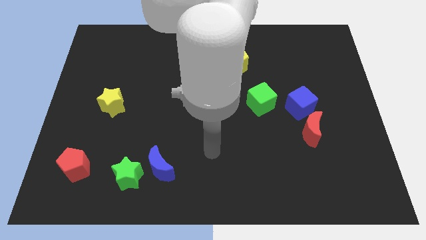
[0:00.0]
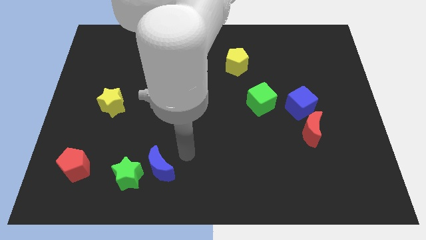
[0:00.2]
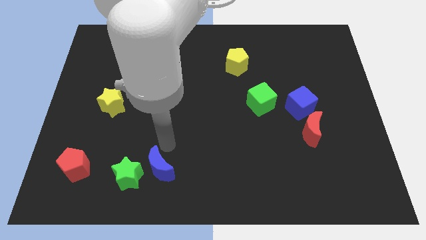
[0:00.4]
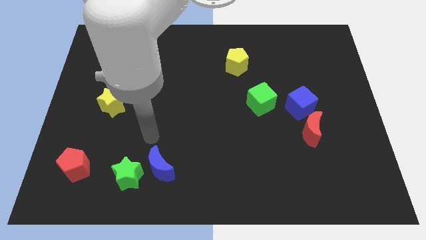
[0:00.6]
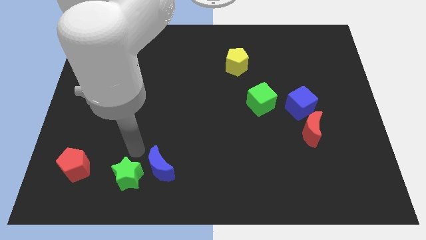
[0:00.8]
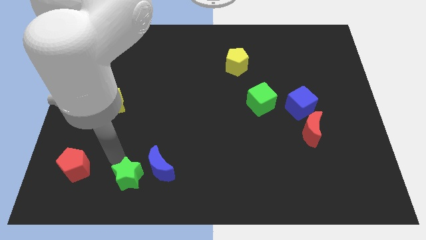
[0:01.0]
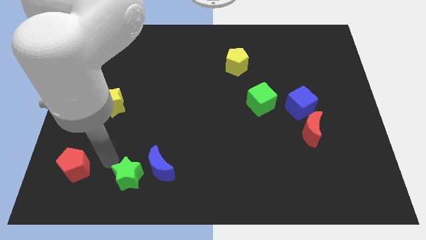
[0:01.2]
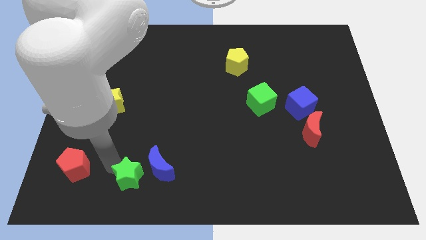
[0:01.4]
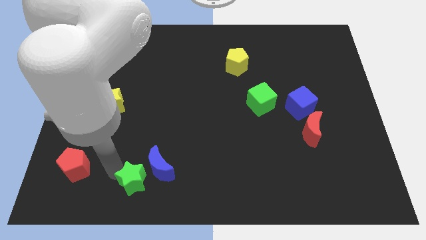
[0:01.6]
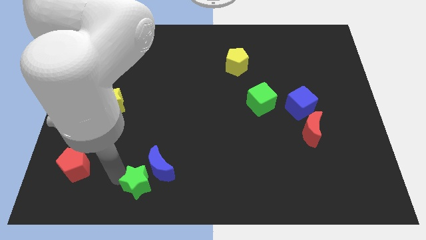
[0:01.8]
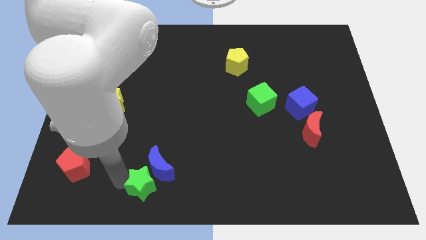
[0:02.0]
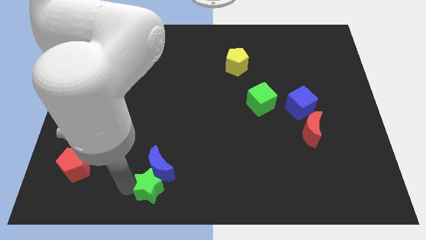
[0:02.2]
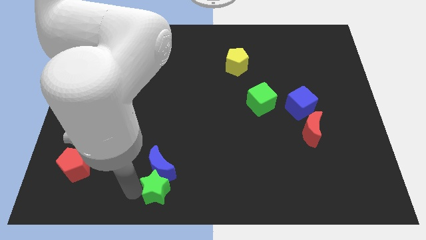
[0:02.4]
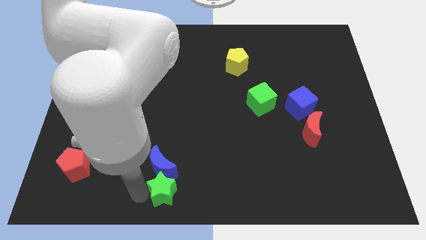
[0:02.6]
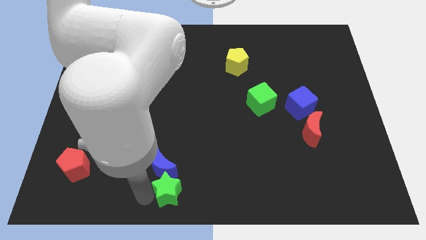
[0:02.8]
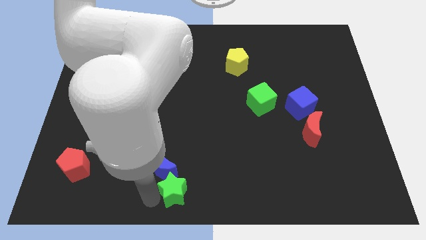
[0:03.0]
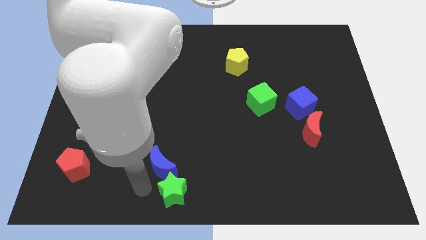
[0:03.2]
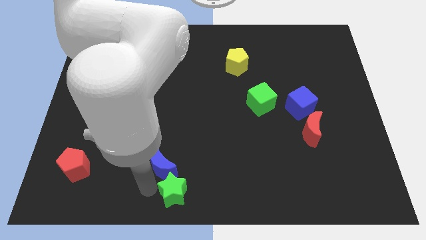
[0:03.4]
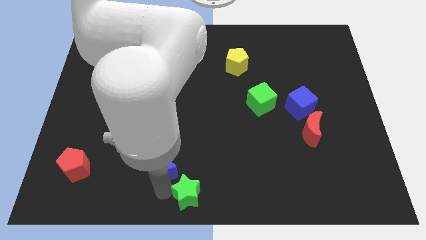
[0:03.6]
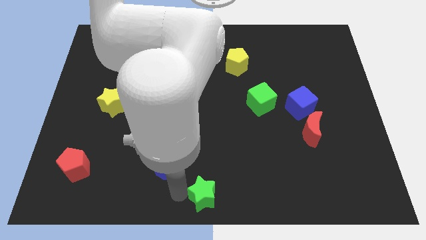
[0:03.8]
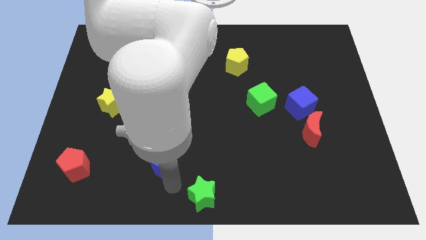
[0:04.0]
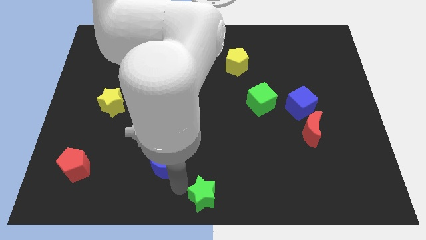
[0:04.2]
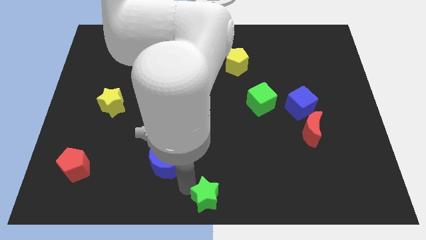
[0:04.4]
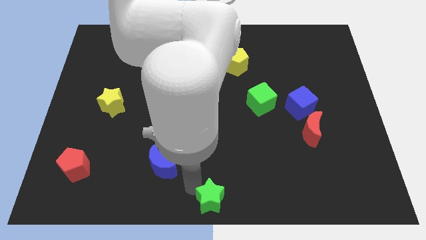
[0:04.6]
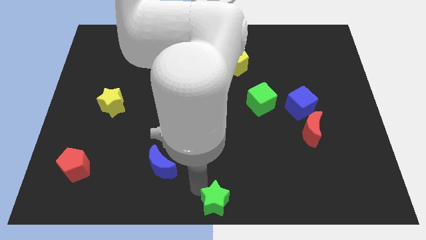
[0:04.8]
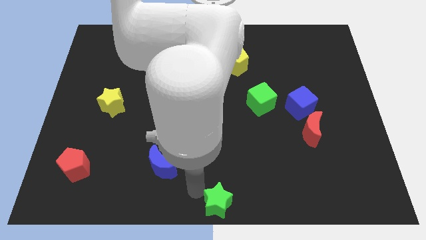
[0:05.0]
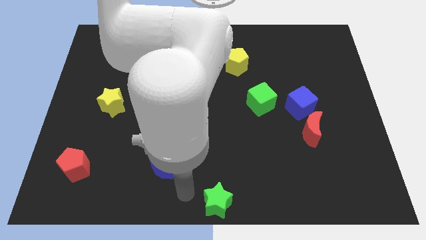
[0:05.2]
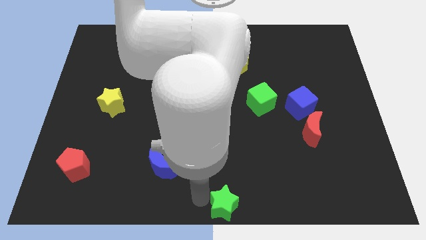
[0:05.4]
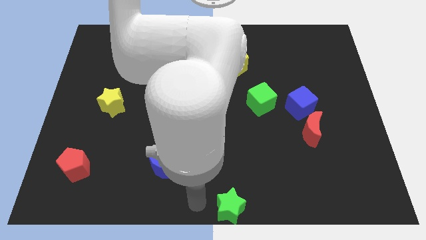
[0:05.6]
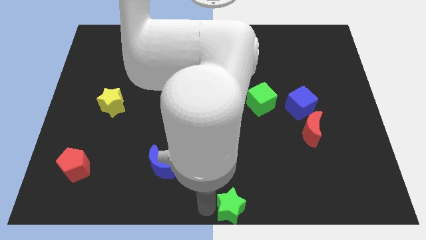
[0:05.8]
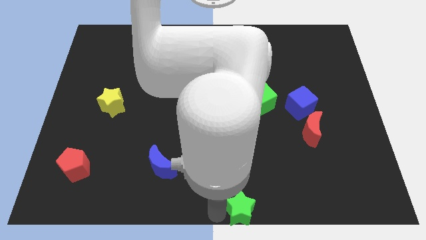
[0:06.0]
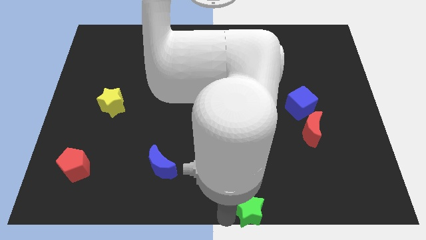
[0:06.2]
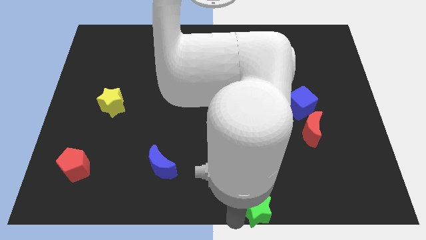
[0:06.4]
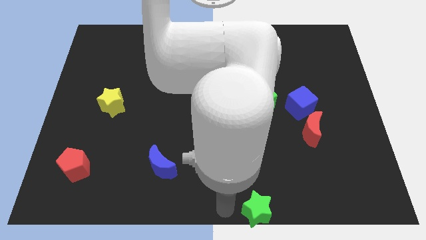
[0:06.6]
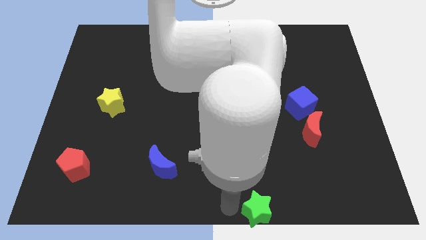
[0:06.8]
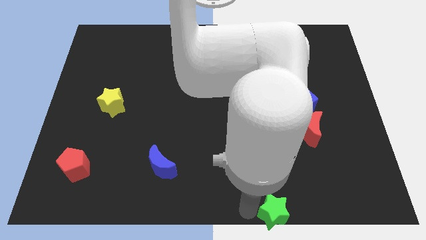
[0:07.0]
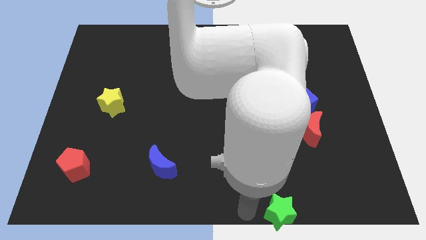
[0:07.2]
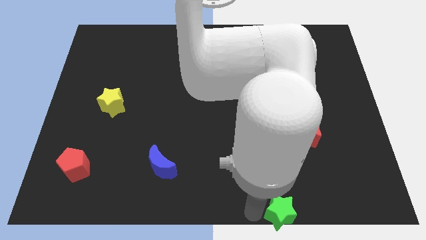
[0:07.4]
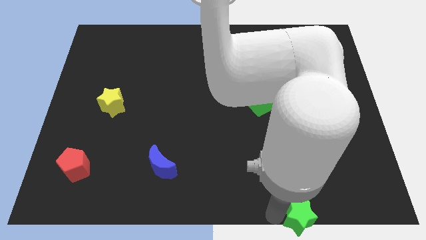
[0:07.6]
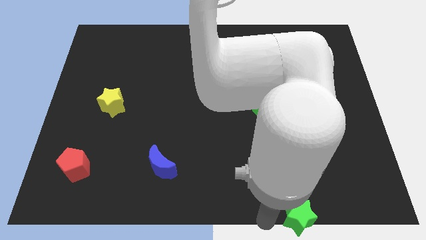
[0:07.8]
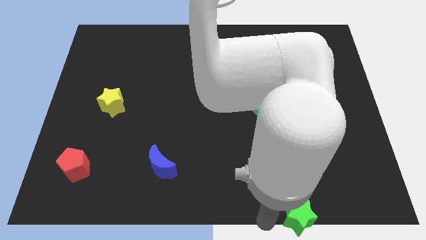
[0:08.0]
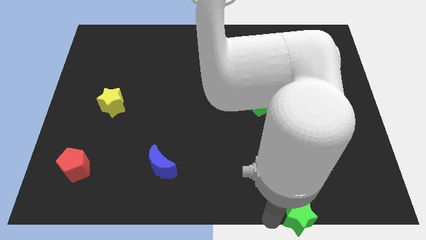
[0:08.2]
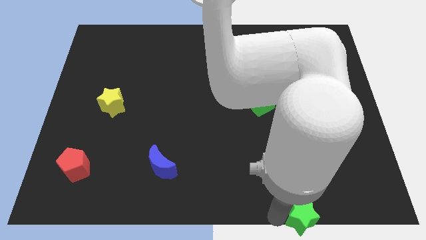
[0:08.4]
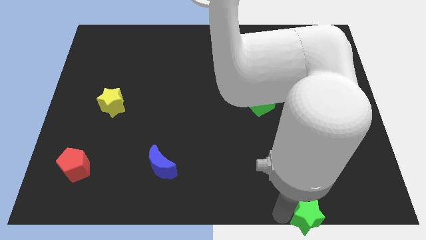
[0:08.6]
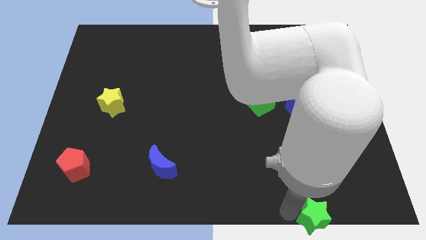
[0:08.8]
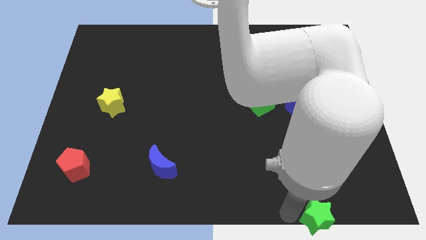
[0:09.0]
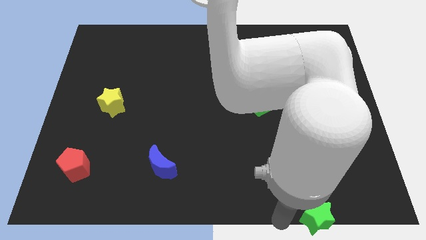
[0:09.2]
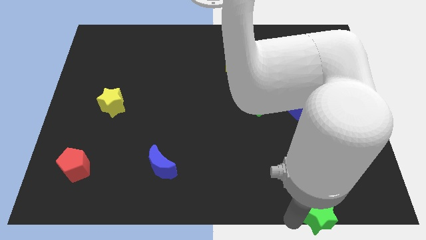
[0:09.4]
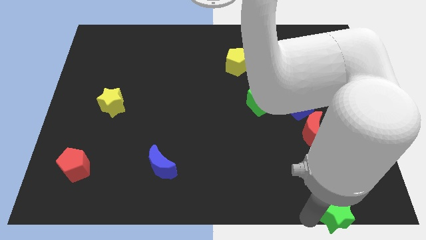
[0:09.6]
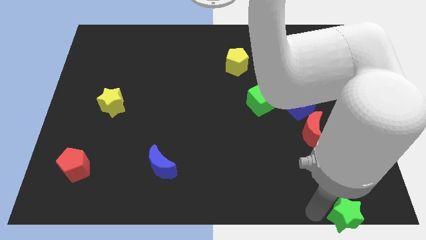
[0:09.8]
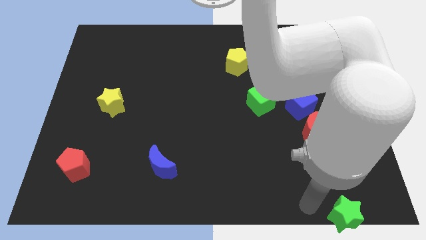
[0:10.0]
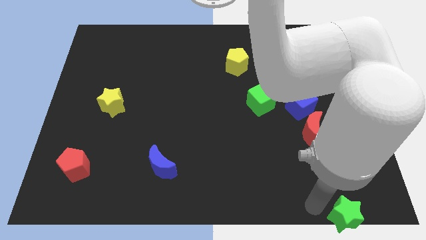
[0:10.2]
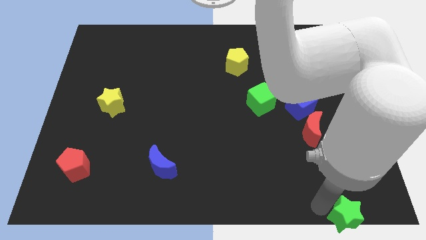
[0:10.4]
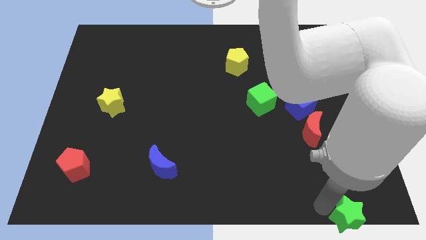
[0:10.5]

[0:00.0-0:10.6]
slide the green star to the bottom right corner

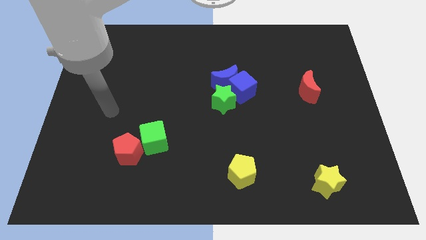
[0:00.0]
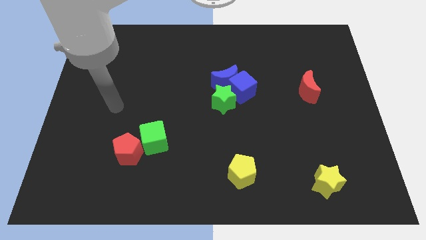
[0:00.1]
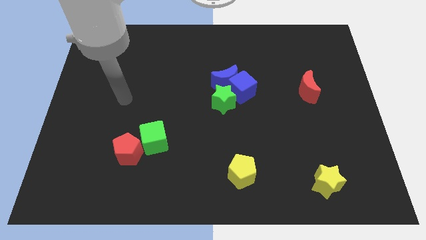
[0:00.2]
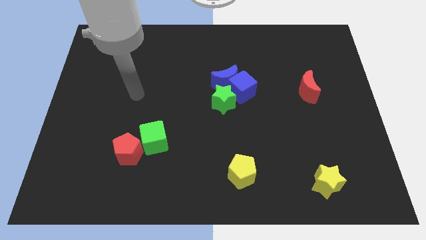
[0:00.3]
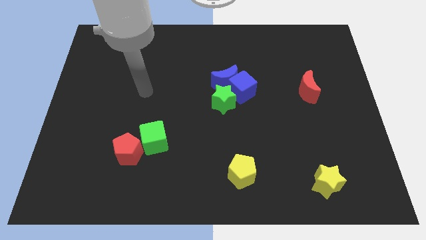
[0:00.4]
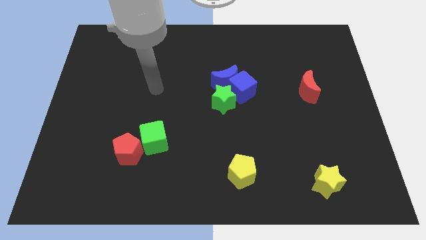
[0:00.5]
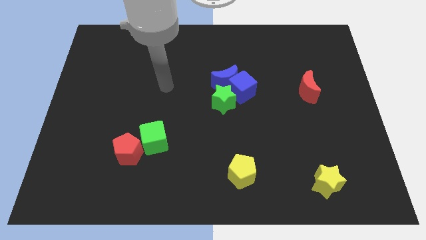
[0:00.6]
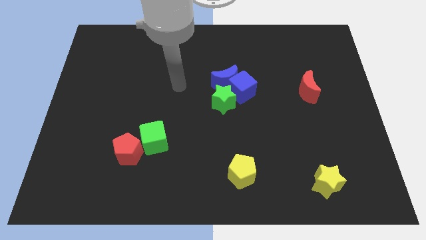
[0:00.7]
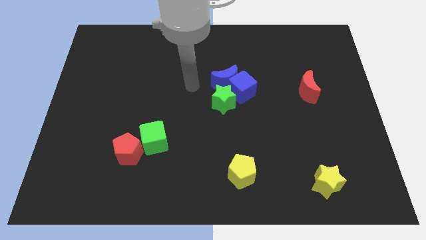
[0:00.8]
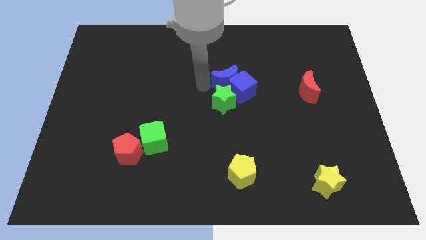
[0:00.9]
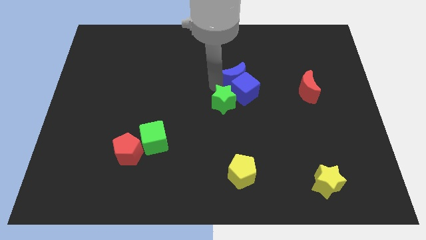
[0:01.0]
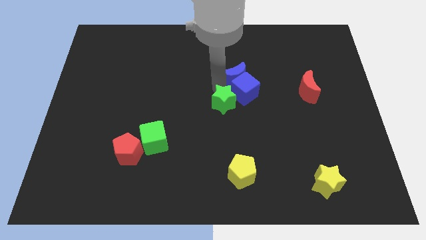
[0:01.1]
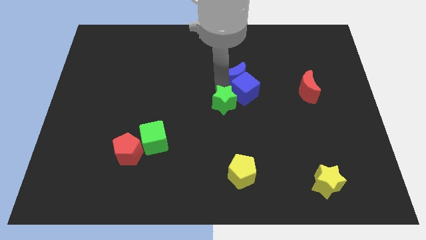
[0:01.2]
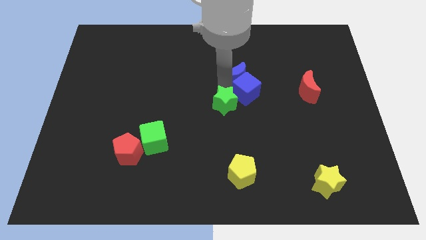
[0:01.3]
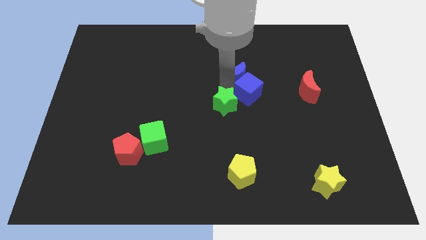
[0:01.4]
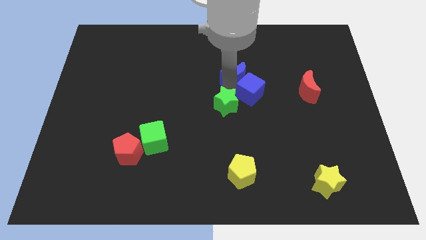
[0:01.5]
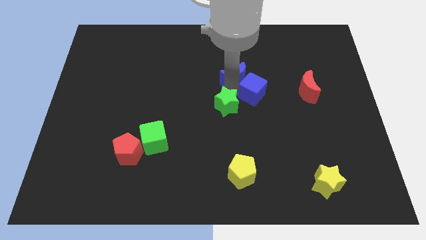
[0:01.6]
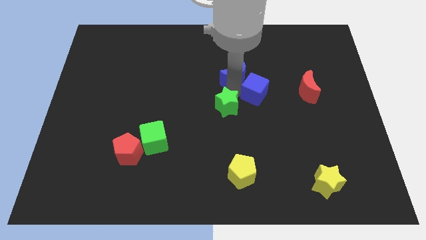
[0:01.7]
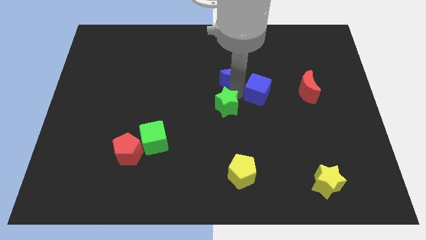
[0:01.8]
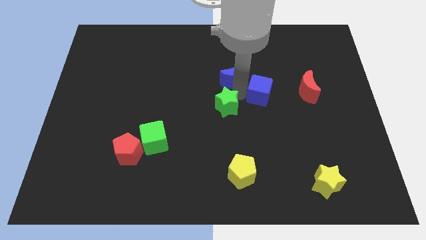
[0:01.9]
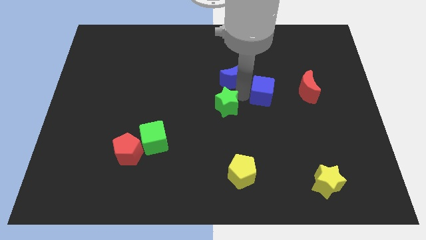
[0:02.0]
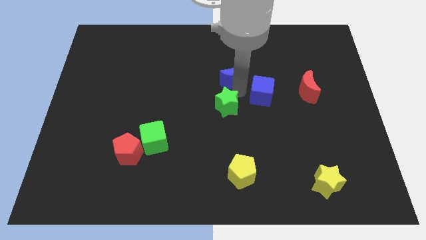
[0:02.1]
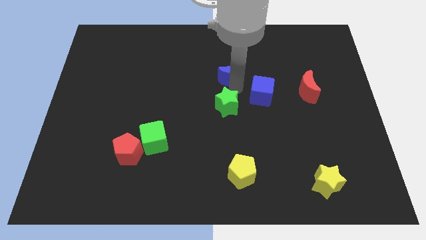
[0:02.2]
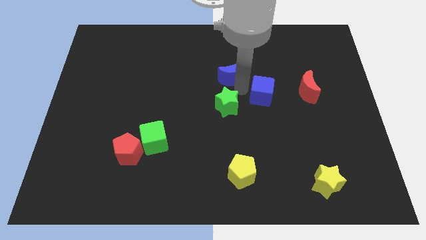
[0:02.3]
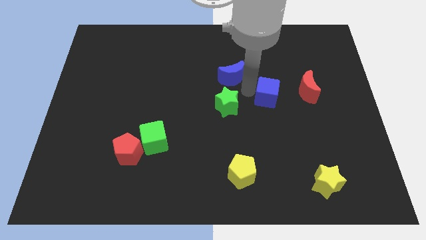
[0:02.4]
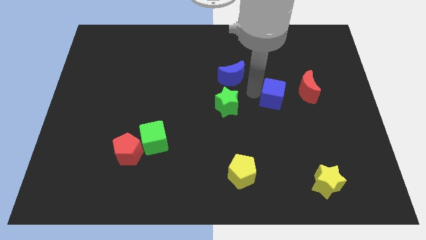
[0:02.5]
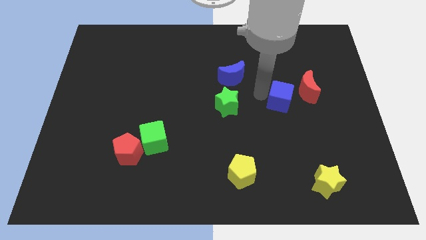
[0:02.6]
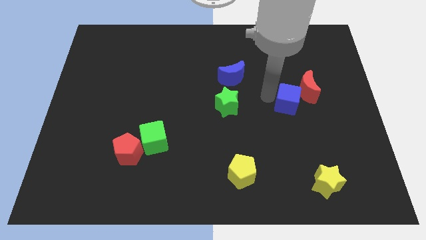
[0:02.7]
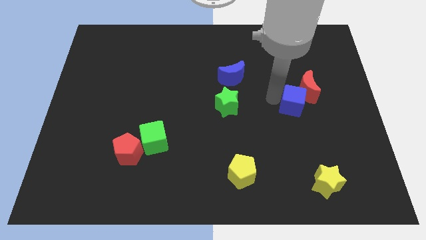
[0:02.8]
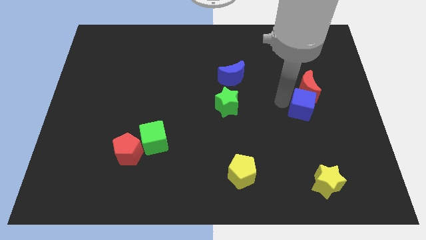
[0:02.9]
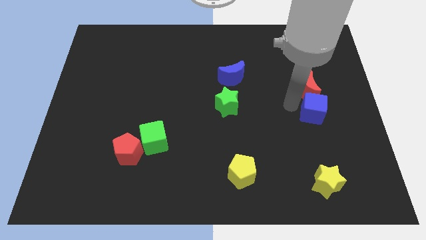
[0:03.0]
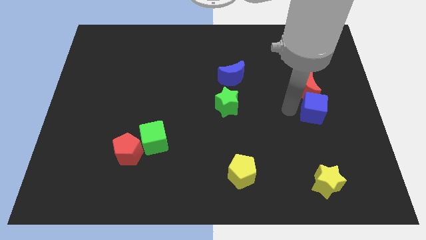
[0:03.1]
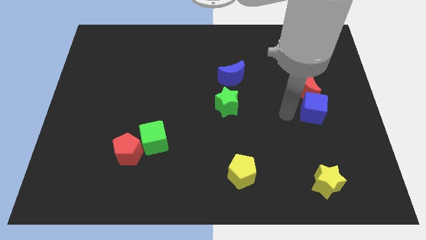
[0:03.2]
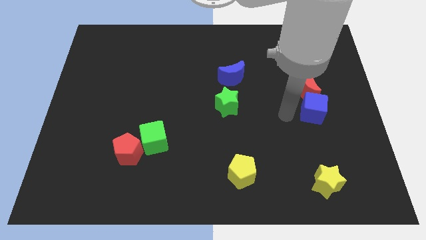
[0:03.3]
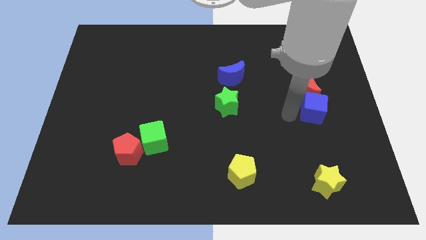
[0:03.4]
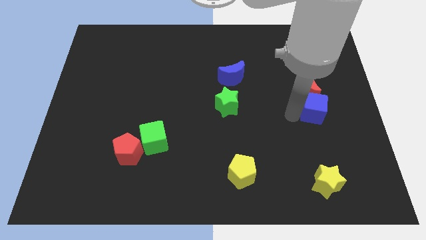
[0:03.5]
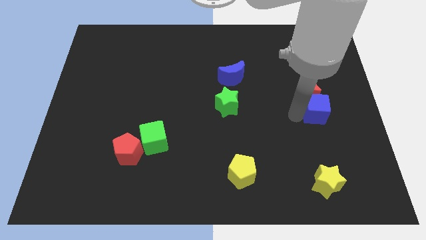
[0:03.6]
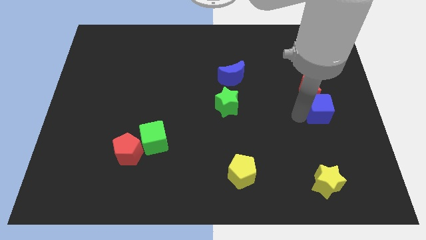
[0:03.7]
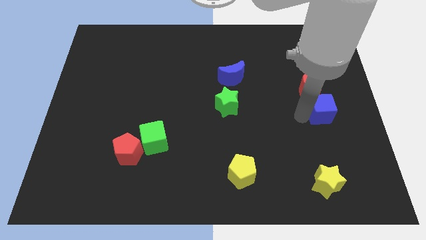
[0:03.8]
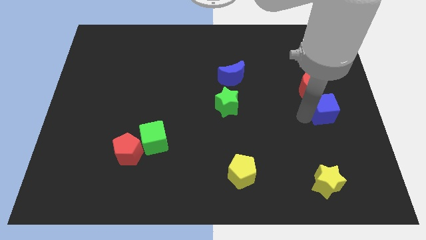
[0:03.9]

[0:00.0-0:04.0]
slide the blue cube to the right side
